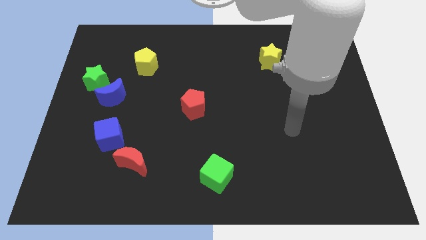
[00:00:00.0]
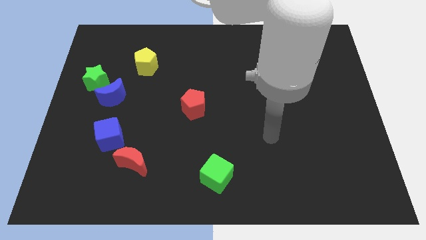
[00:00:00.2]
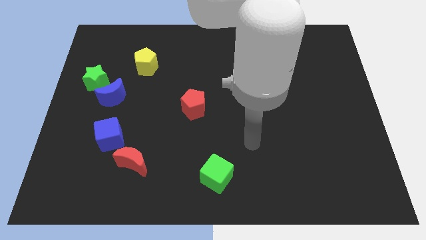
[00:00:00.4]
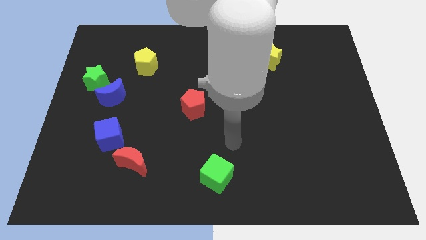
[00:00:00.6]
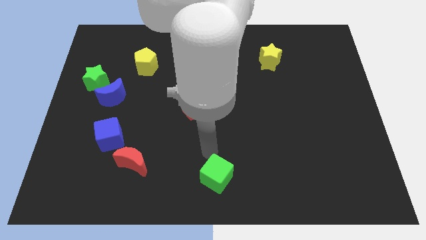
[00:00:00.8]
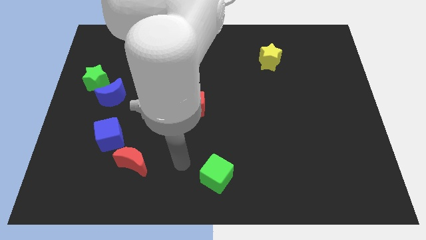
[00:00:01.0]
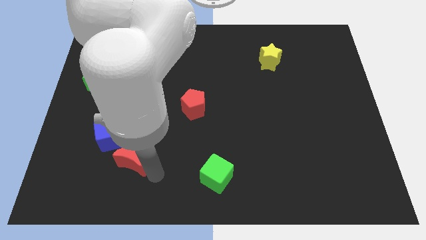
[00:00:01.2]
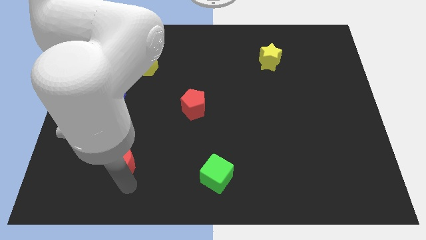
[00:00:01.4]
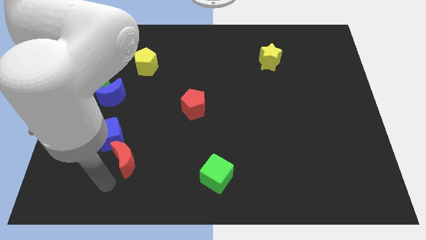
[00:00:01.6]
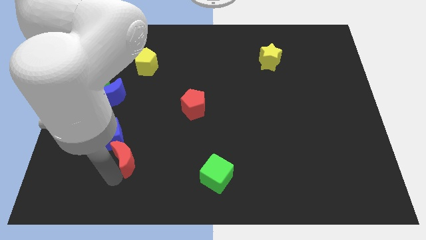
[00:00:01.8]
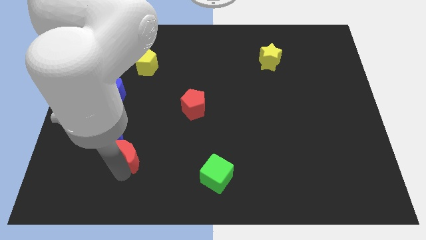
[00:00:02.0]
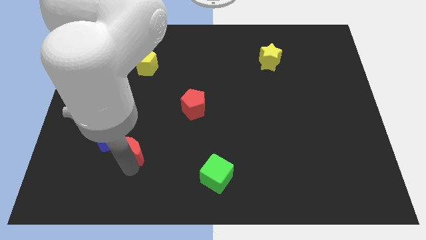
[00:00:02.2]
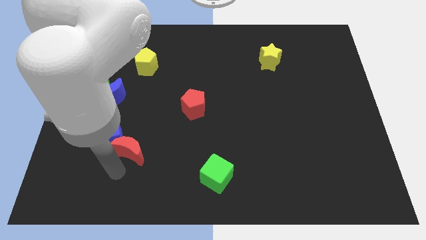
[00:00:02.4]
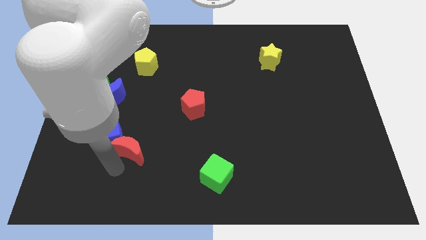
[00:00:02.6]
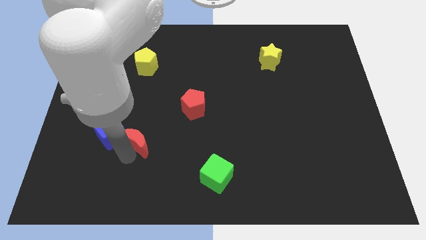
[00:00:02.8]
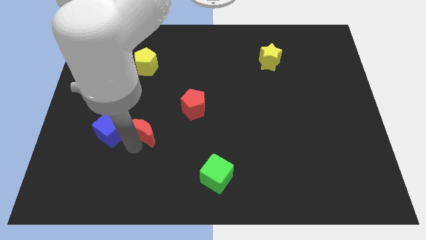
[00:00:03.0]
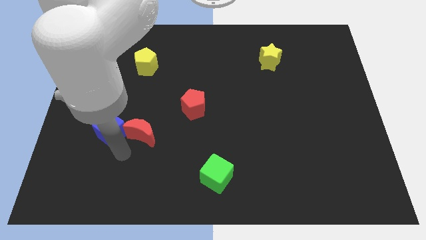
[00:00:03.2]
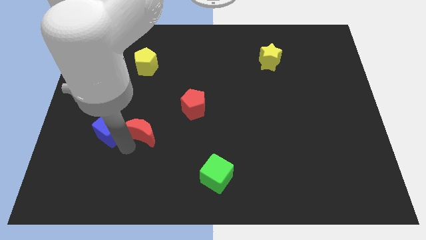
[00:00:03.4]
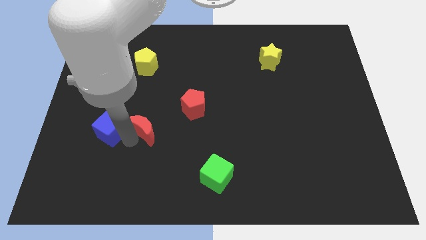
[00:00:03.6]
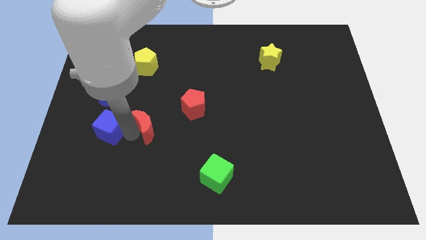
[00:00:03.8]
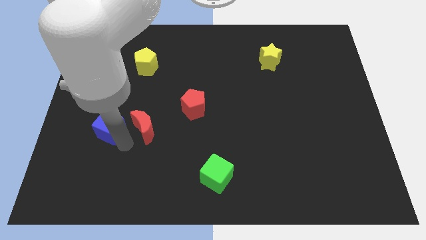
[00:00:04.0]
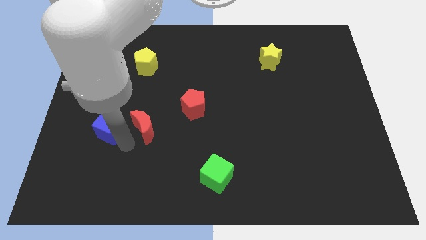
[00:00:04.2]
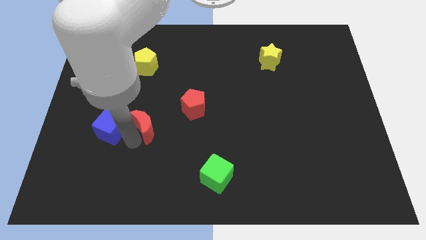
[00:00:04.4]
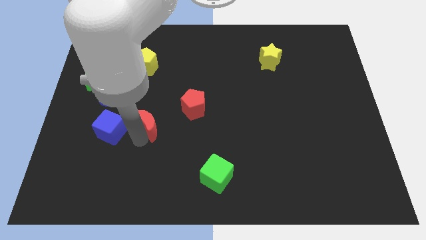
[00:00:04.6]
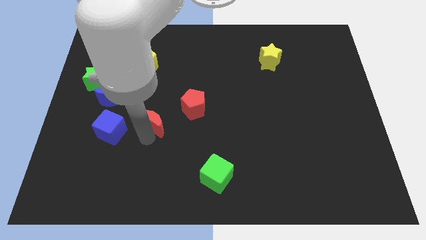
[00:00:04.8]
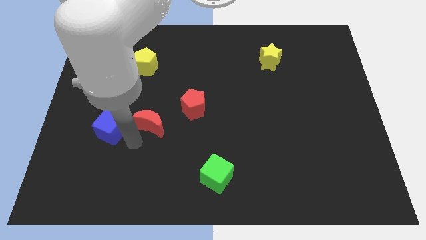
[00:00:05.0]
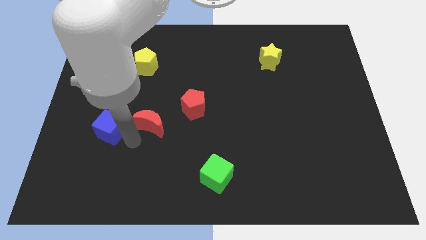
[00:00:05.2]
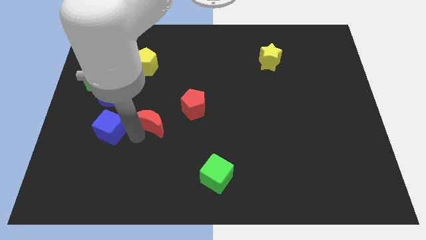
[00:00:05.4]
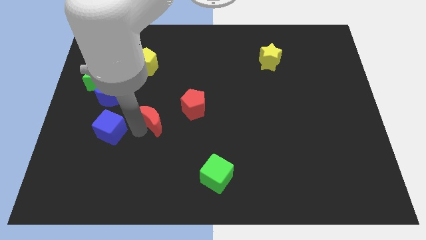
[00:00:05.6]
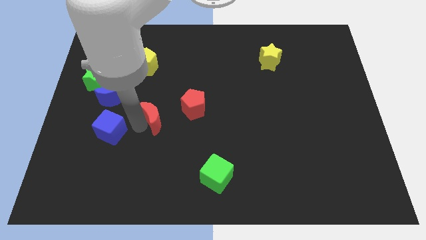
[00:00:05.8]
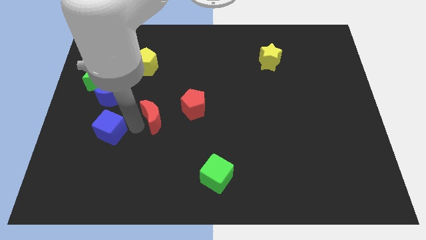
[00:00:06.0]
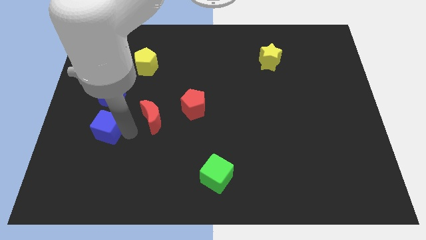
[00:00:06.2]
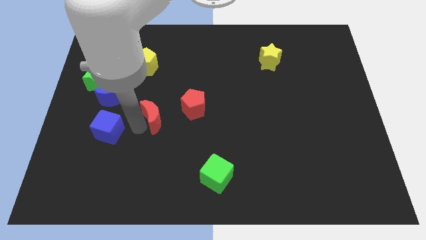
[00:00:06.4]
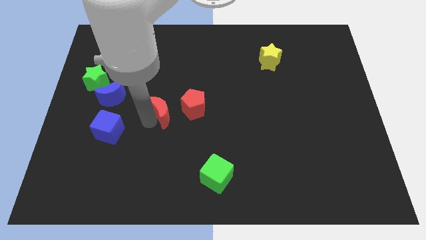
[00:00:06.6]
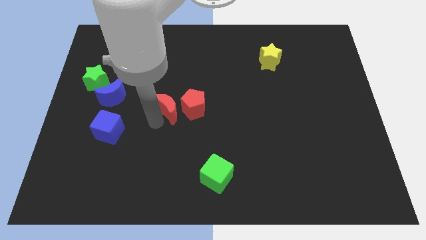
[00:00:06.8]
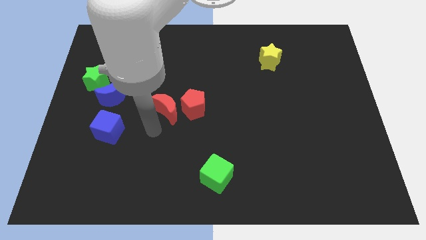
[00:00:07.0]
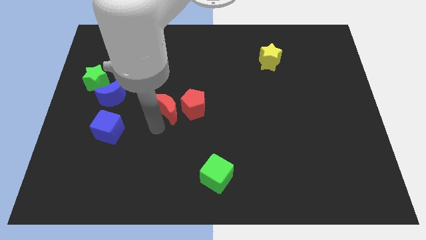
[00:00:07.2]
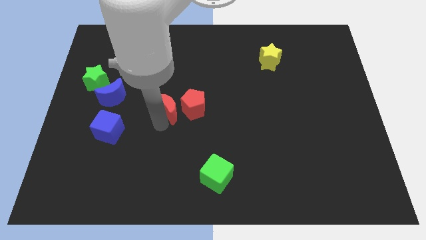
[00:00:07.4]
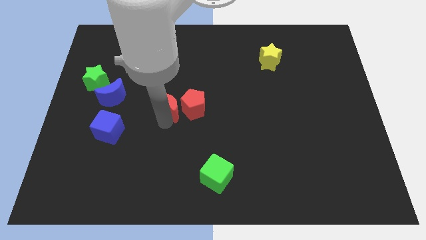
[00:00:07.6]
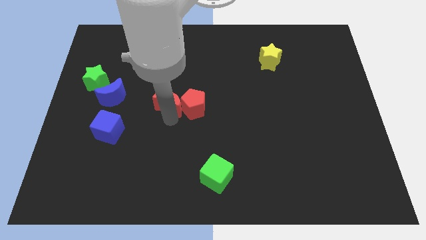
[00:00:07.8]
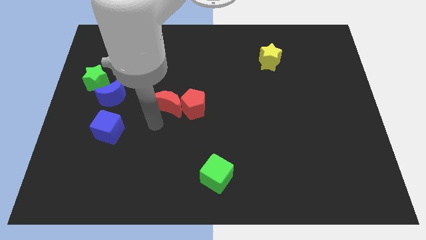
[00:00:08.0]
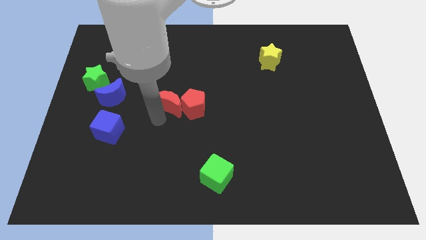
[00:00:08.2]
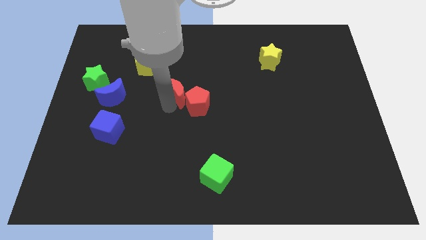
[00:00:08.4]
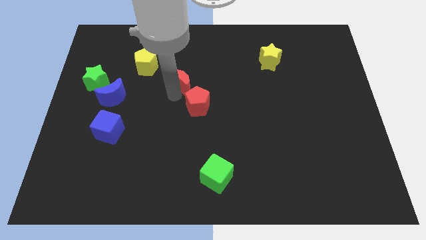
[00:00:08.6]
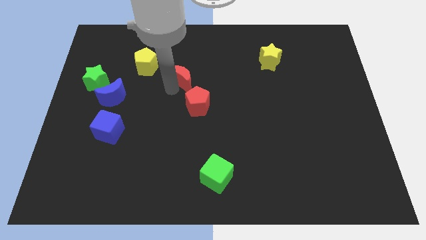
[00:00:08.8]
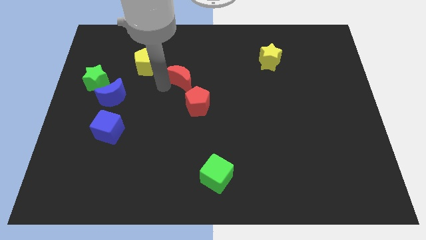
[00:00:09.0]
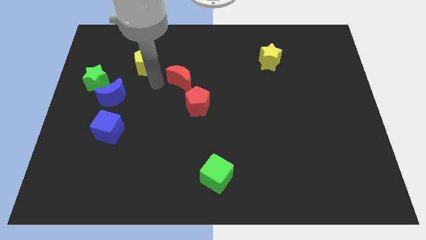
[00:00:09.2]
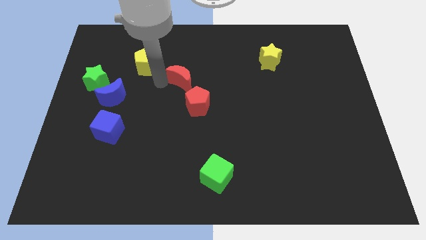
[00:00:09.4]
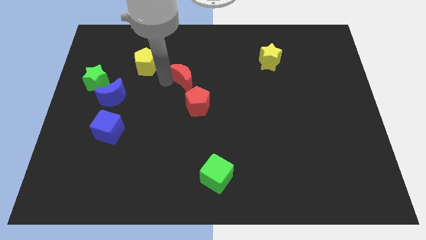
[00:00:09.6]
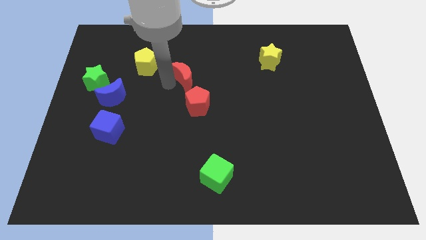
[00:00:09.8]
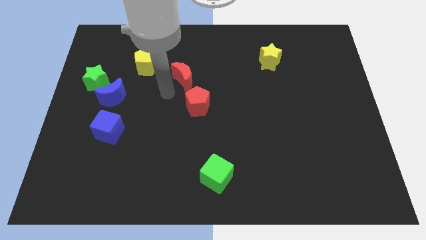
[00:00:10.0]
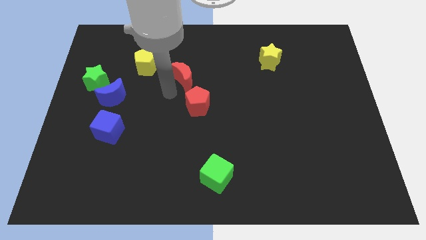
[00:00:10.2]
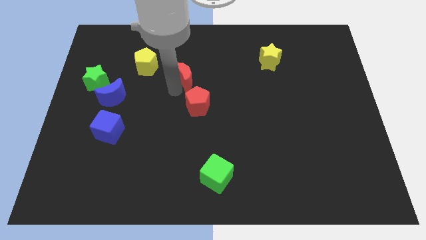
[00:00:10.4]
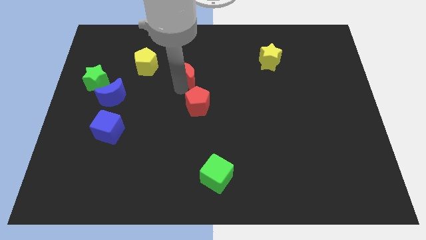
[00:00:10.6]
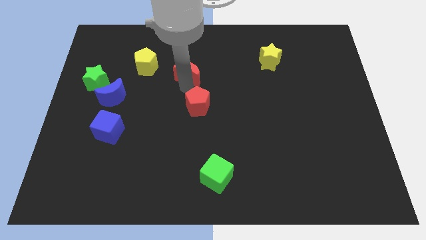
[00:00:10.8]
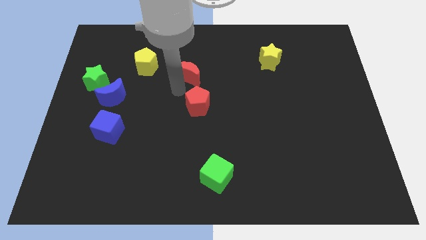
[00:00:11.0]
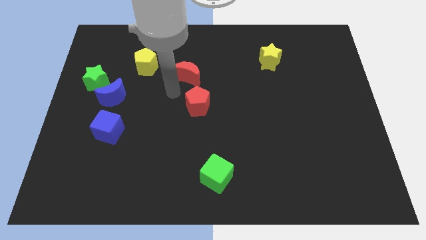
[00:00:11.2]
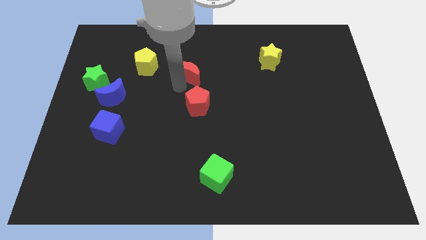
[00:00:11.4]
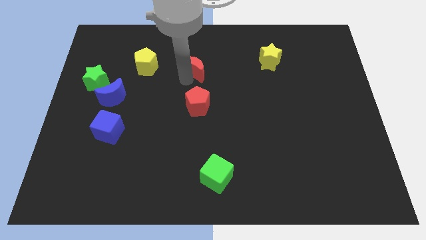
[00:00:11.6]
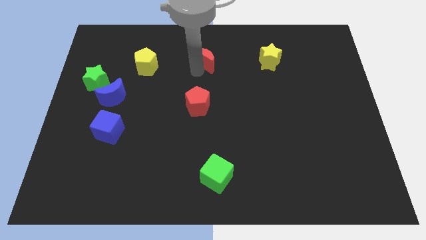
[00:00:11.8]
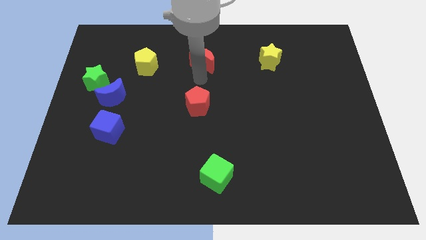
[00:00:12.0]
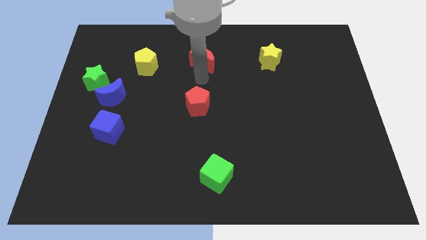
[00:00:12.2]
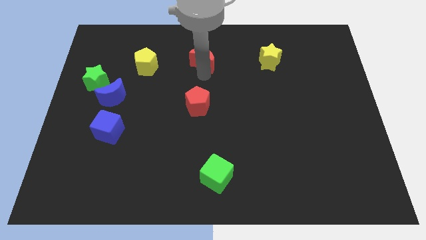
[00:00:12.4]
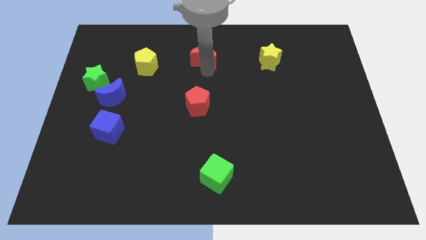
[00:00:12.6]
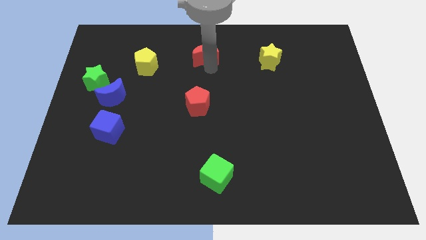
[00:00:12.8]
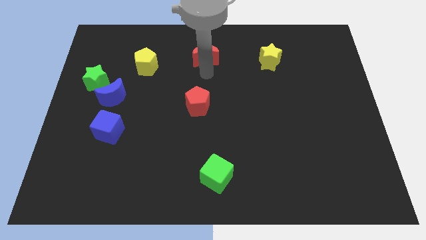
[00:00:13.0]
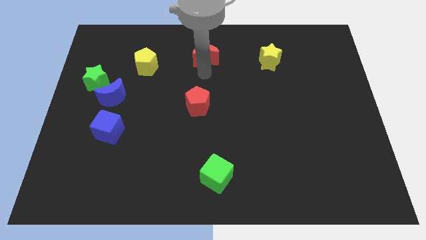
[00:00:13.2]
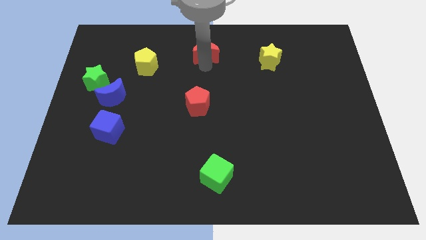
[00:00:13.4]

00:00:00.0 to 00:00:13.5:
put the red moon to the top side
